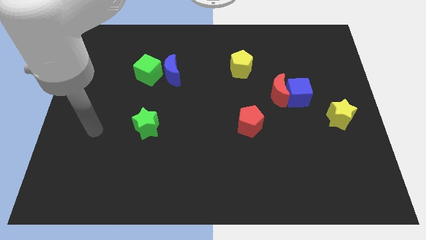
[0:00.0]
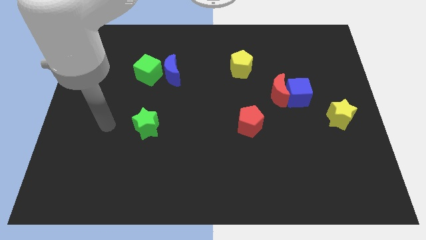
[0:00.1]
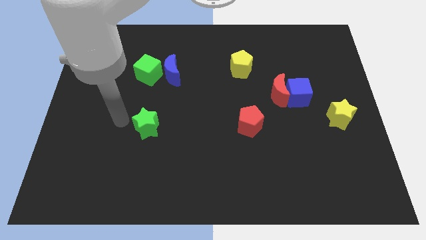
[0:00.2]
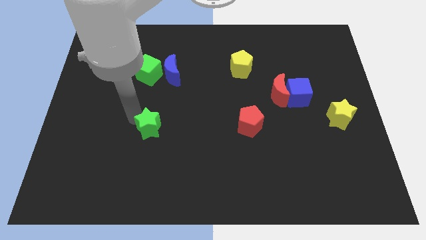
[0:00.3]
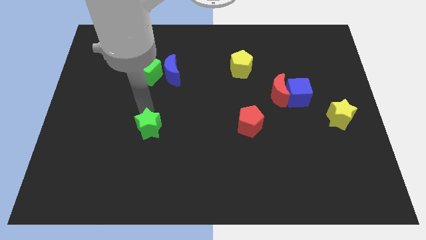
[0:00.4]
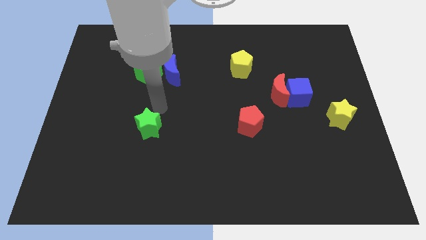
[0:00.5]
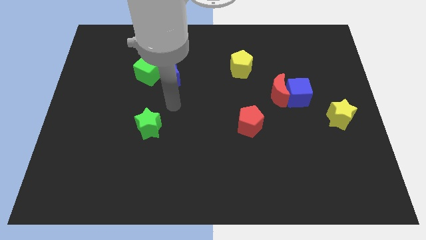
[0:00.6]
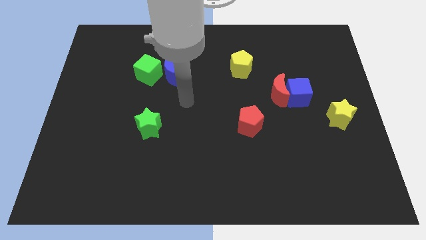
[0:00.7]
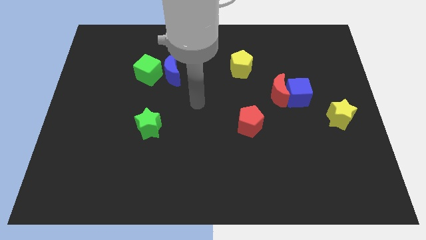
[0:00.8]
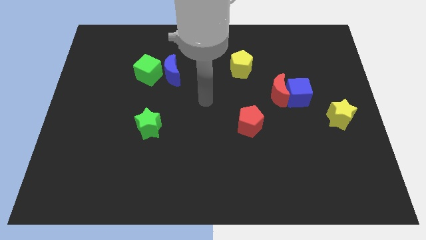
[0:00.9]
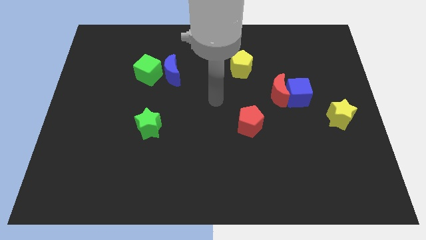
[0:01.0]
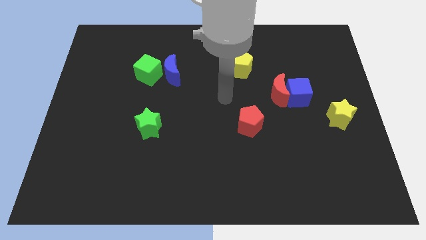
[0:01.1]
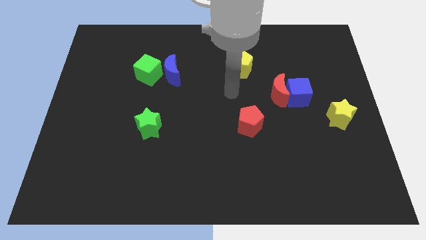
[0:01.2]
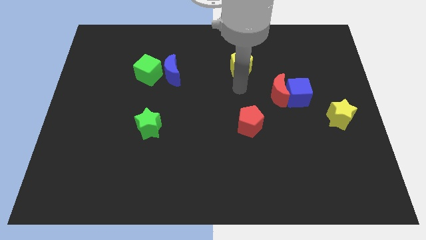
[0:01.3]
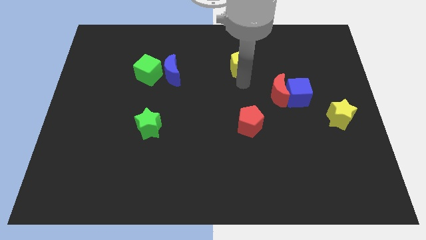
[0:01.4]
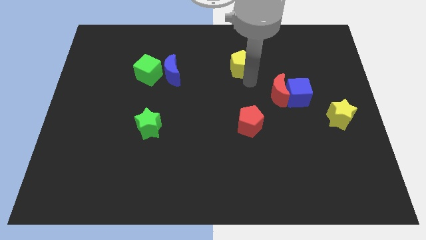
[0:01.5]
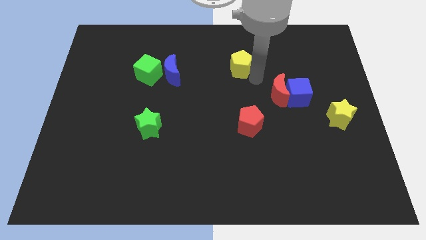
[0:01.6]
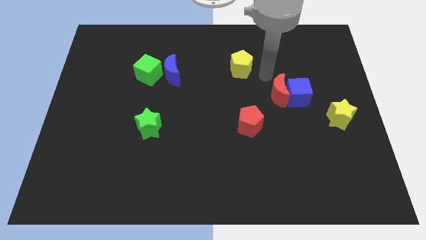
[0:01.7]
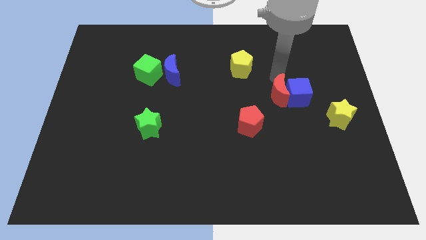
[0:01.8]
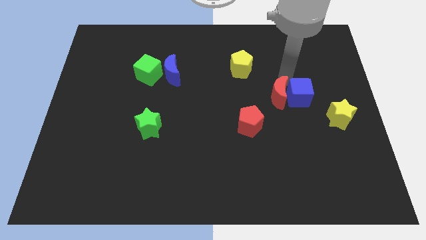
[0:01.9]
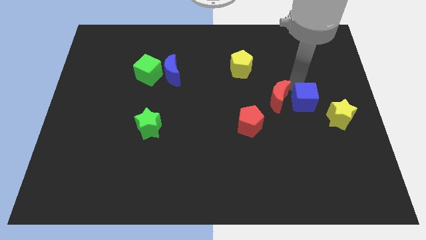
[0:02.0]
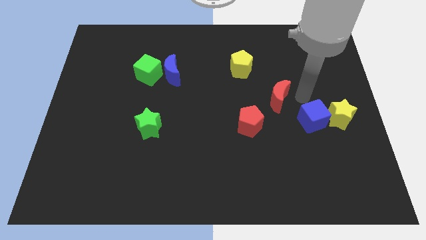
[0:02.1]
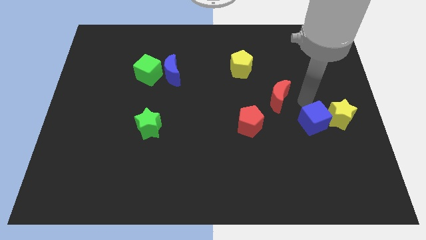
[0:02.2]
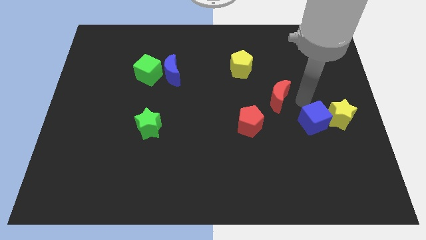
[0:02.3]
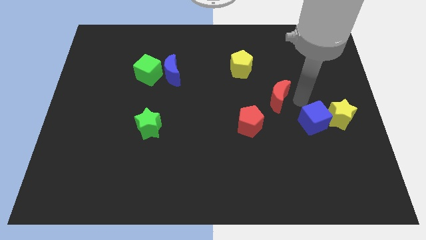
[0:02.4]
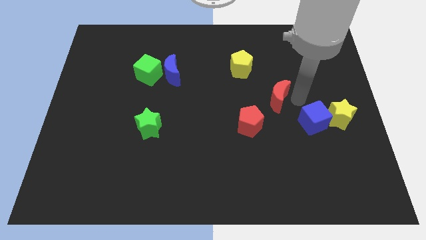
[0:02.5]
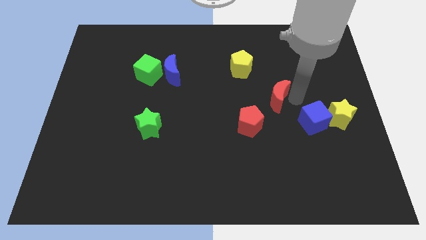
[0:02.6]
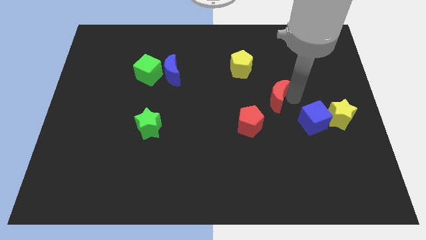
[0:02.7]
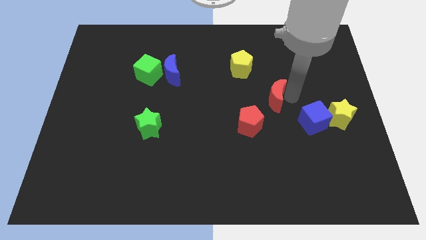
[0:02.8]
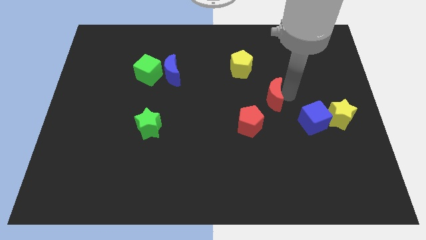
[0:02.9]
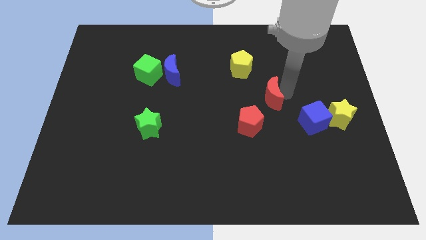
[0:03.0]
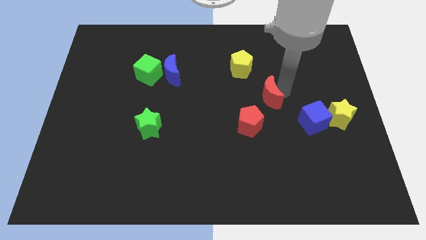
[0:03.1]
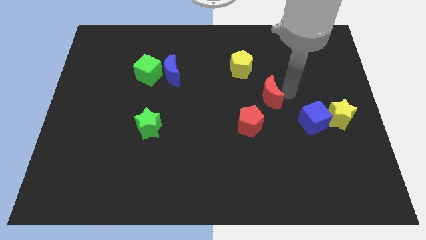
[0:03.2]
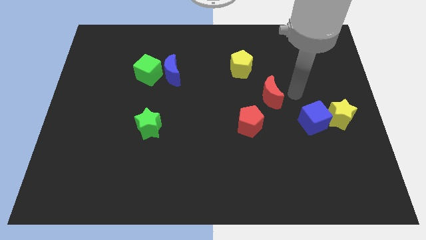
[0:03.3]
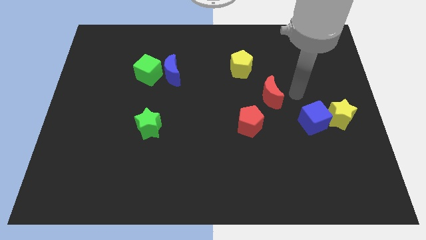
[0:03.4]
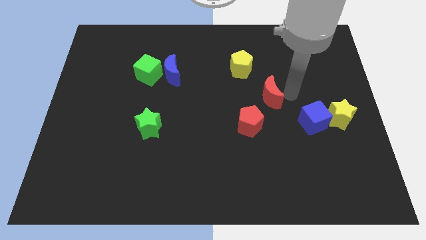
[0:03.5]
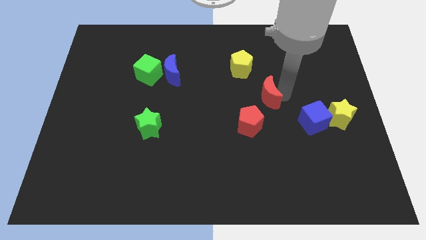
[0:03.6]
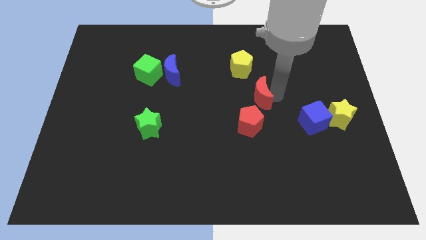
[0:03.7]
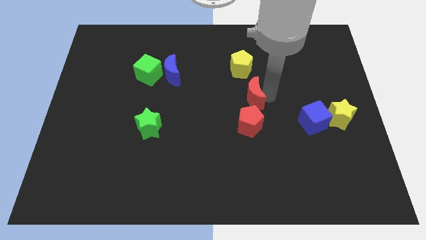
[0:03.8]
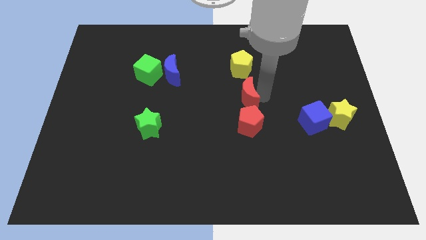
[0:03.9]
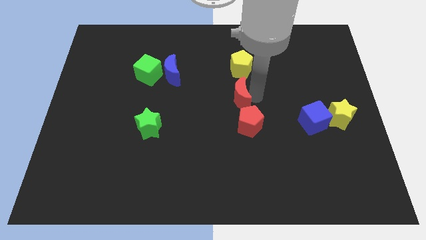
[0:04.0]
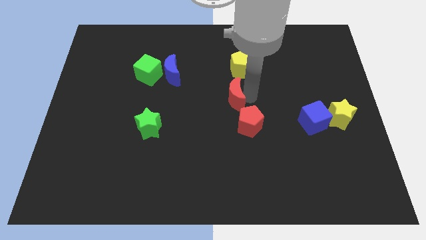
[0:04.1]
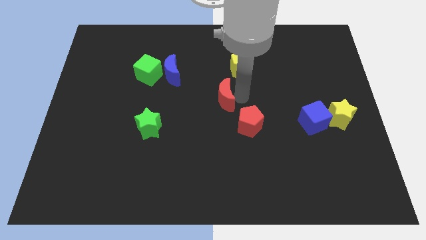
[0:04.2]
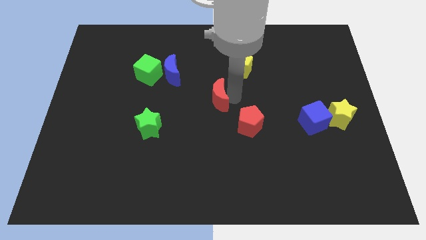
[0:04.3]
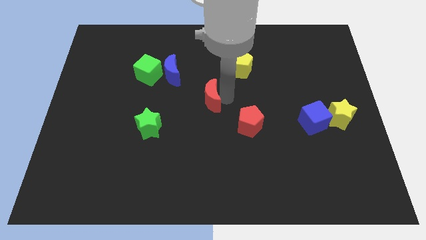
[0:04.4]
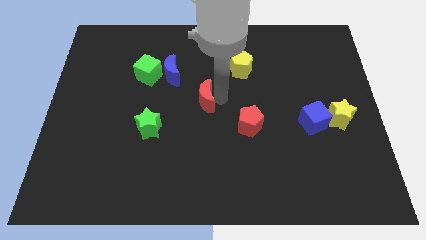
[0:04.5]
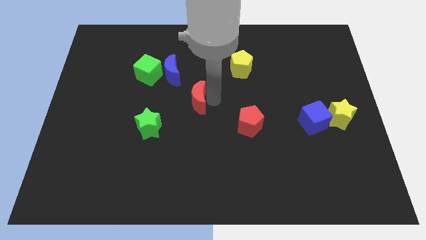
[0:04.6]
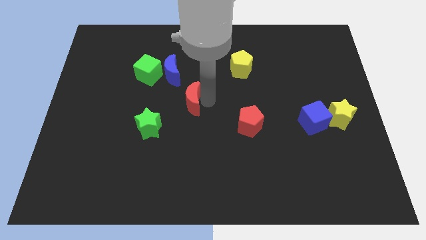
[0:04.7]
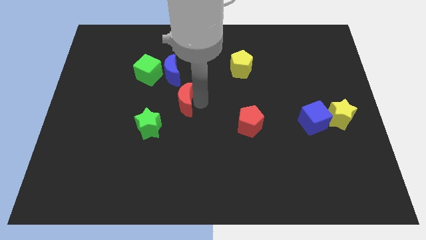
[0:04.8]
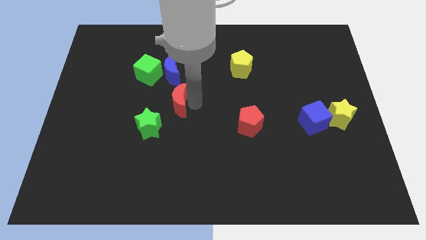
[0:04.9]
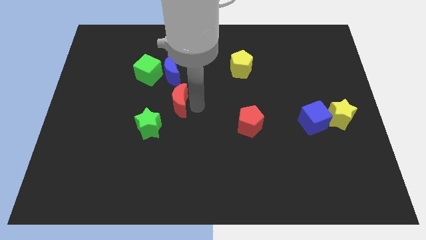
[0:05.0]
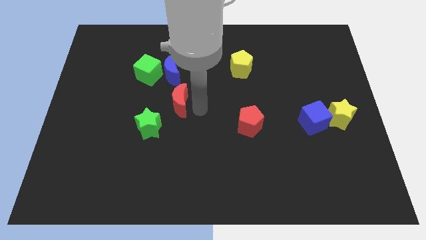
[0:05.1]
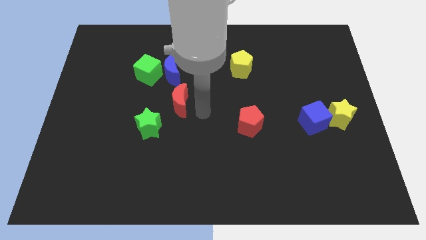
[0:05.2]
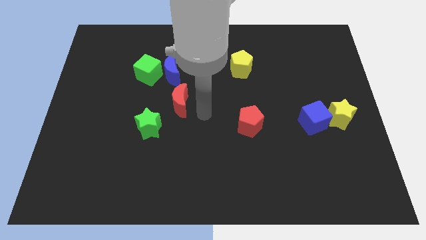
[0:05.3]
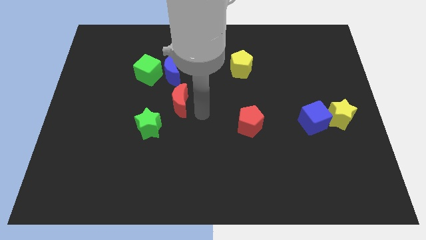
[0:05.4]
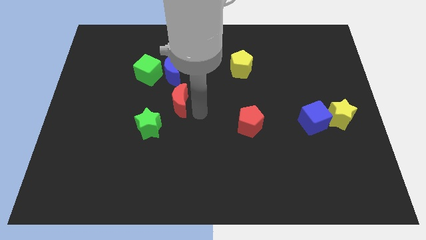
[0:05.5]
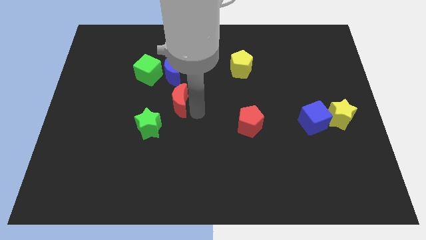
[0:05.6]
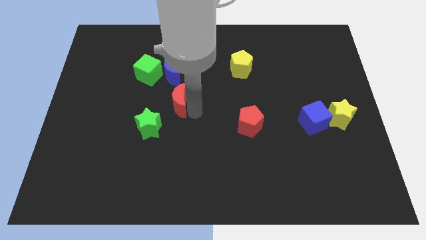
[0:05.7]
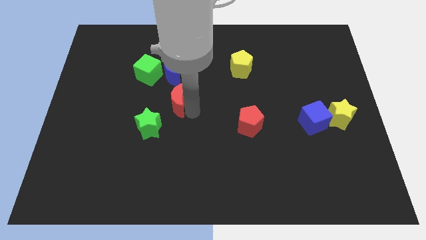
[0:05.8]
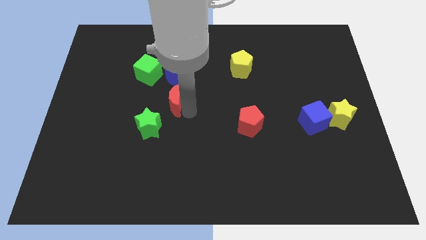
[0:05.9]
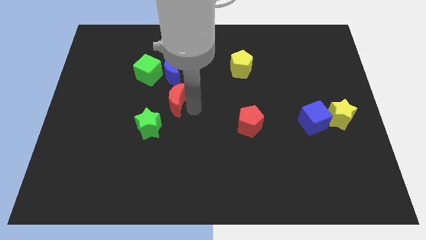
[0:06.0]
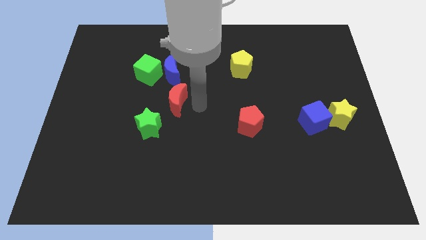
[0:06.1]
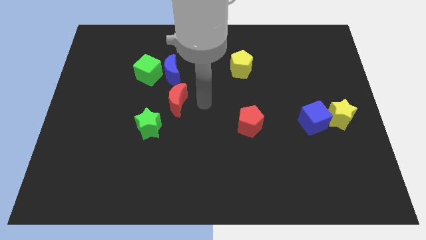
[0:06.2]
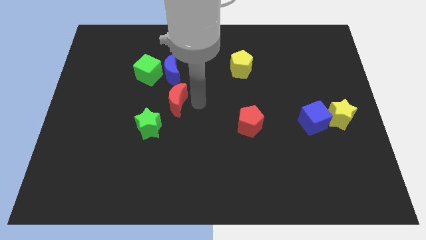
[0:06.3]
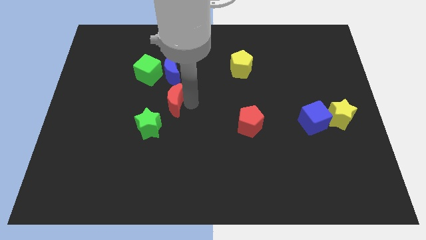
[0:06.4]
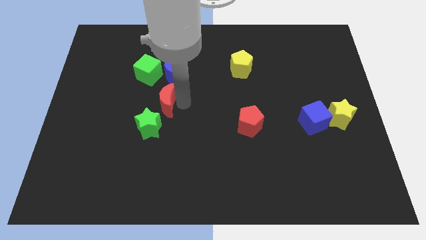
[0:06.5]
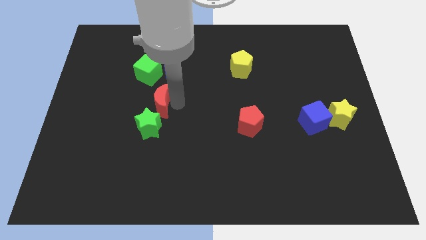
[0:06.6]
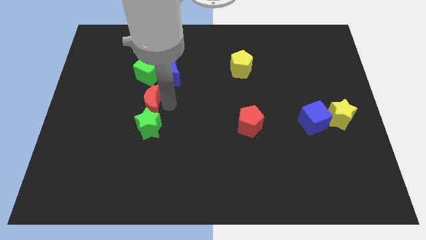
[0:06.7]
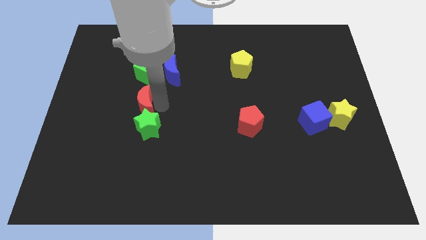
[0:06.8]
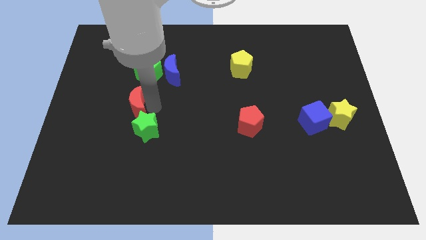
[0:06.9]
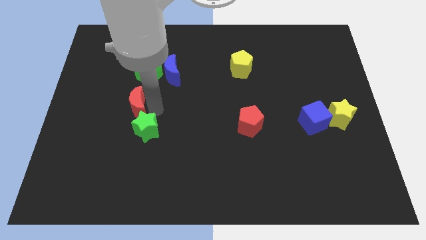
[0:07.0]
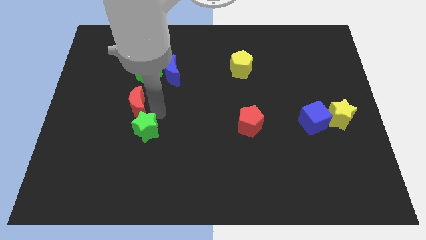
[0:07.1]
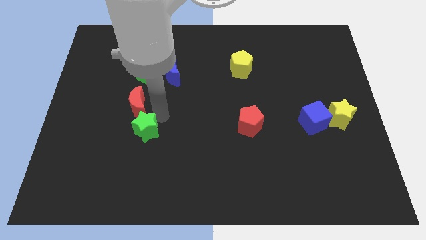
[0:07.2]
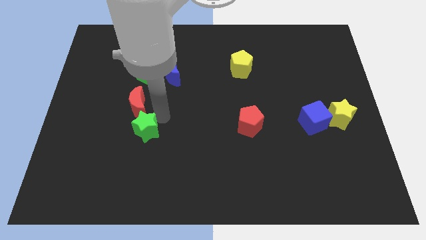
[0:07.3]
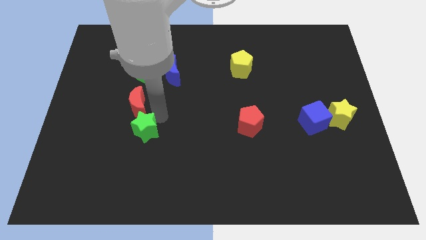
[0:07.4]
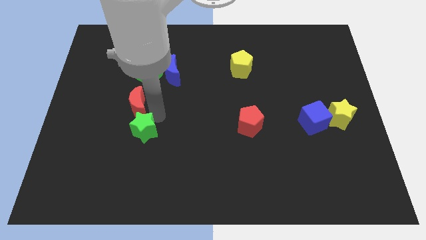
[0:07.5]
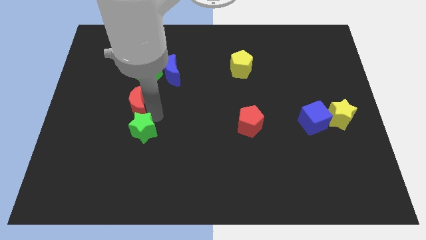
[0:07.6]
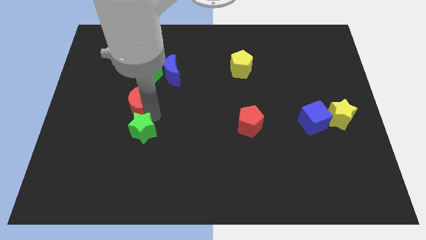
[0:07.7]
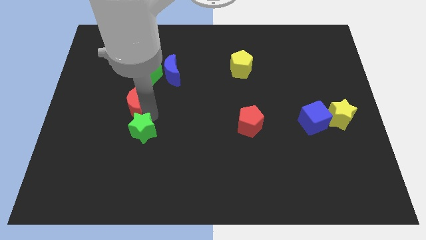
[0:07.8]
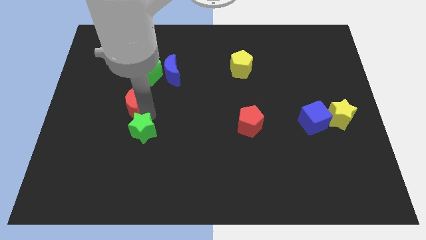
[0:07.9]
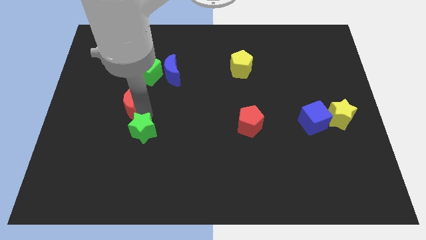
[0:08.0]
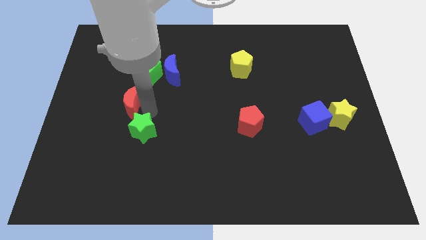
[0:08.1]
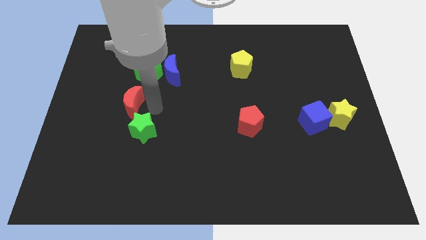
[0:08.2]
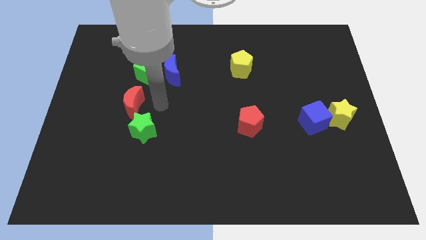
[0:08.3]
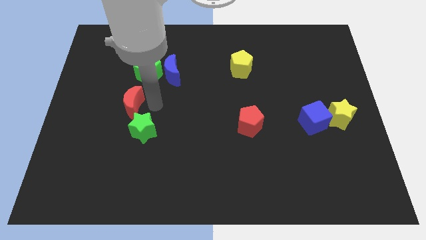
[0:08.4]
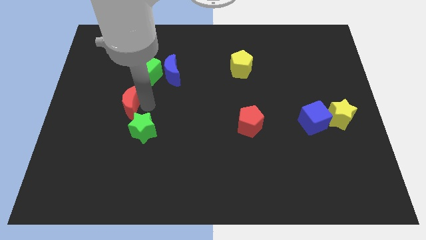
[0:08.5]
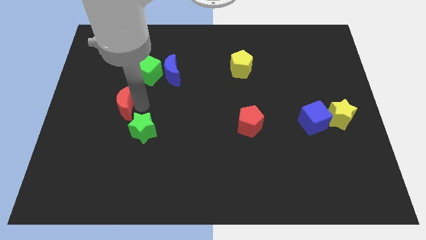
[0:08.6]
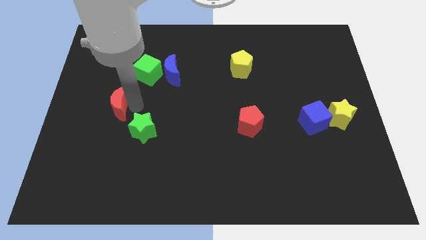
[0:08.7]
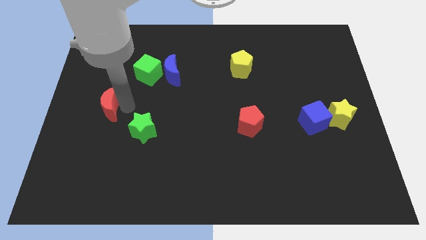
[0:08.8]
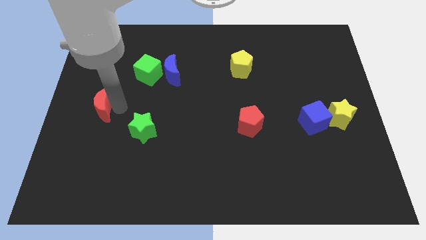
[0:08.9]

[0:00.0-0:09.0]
move the red moon to the center left
